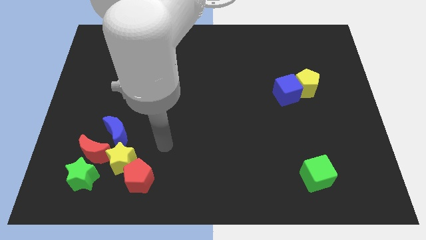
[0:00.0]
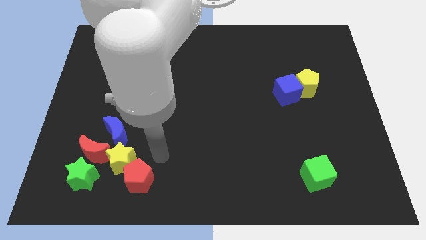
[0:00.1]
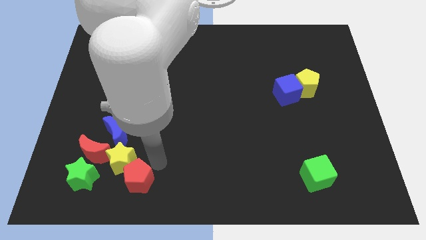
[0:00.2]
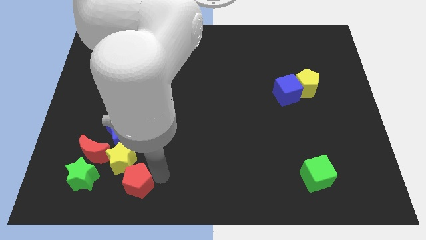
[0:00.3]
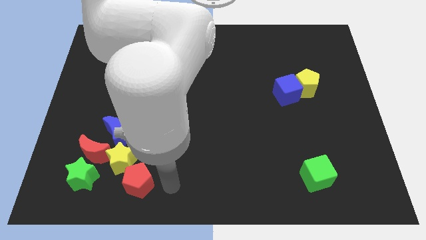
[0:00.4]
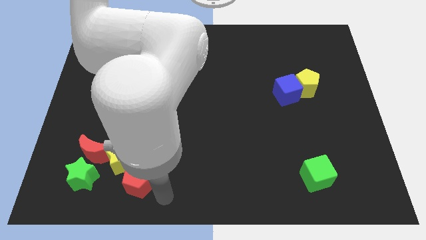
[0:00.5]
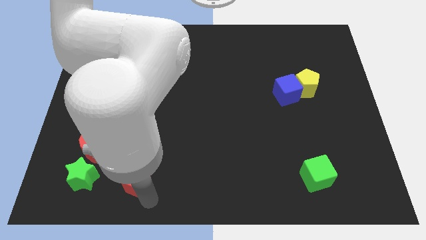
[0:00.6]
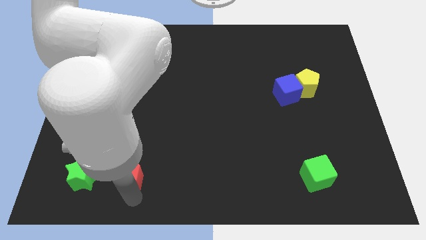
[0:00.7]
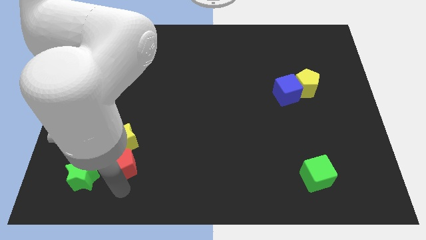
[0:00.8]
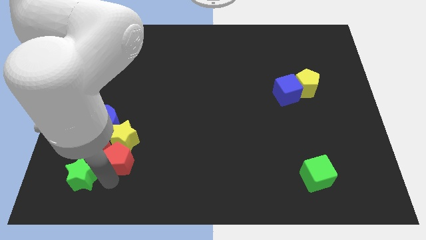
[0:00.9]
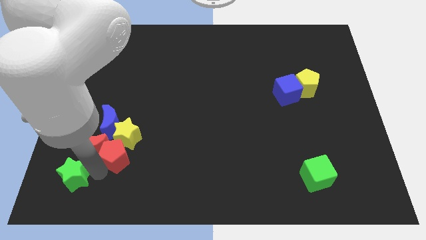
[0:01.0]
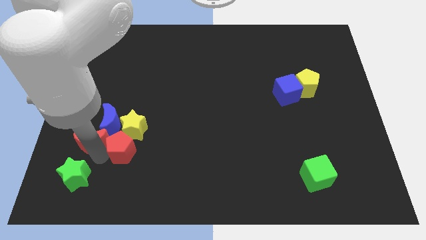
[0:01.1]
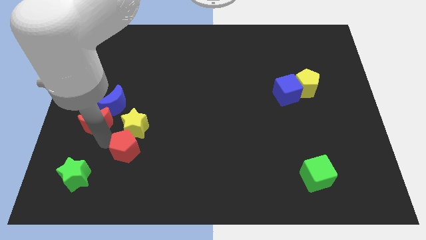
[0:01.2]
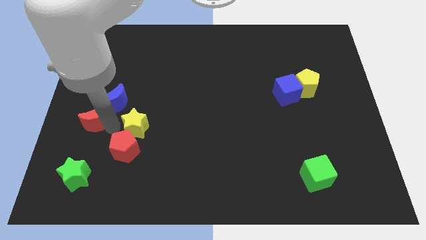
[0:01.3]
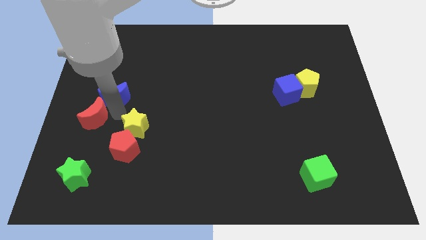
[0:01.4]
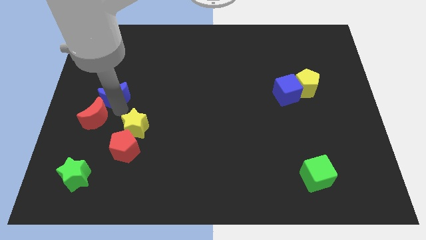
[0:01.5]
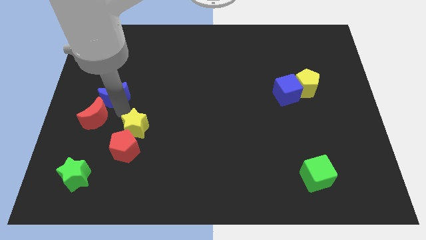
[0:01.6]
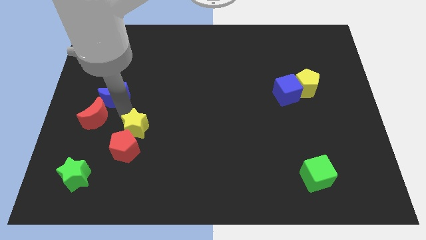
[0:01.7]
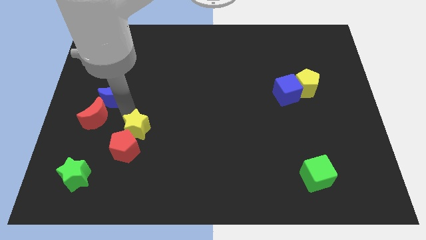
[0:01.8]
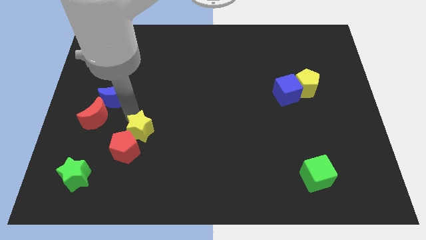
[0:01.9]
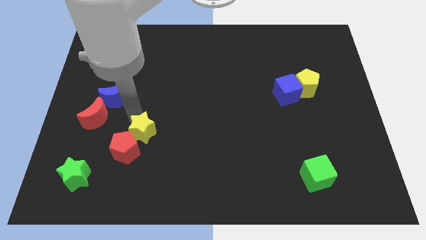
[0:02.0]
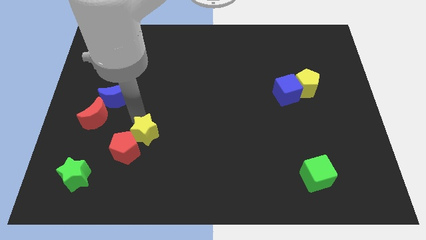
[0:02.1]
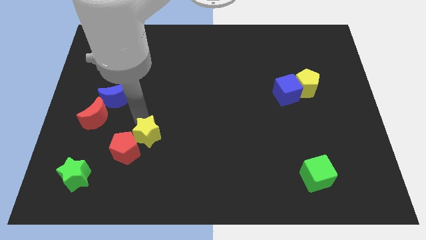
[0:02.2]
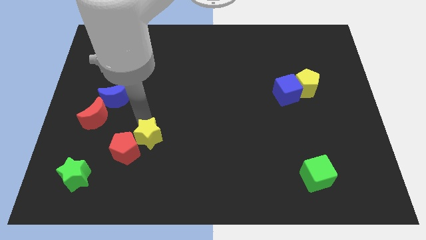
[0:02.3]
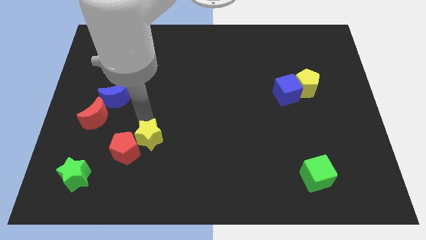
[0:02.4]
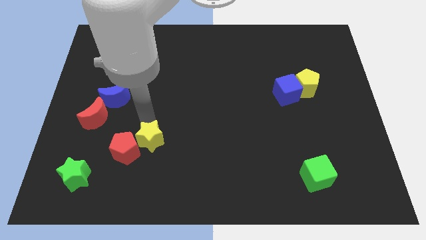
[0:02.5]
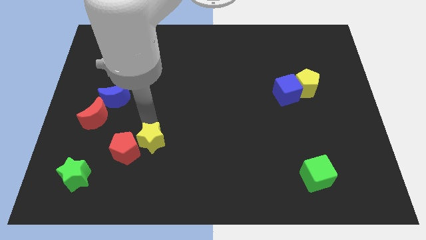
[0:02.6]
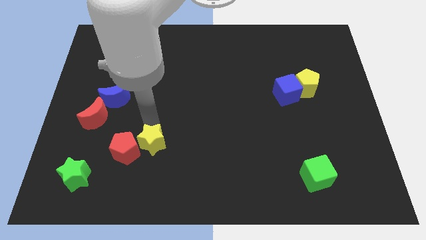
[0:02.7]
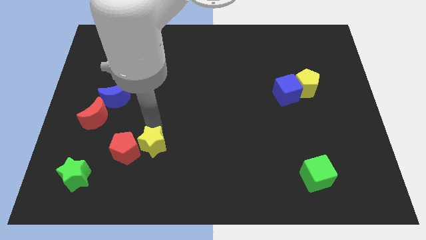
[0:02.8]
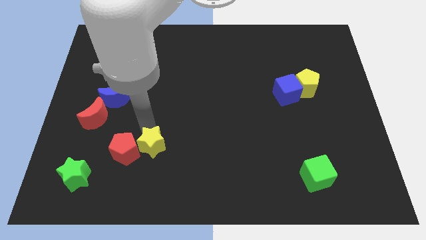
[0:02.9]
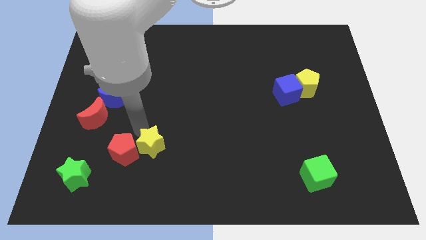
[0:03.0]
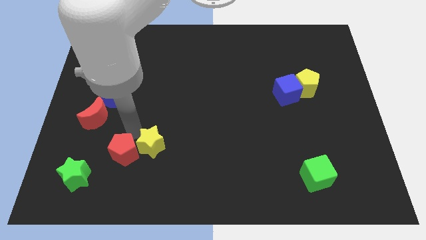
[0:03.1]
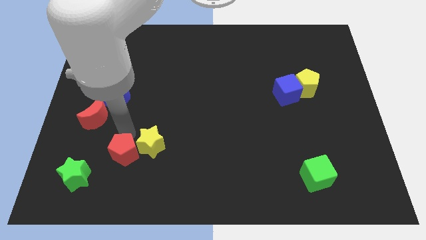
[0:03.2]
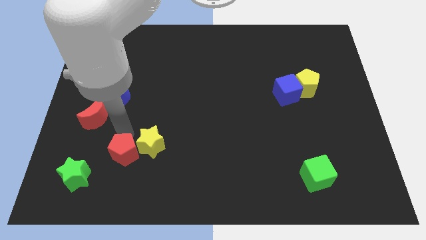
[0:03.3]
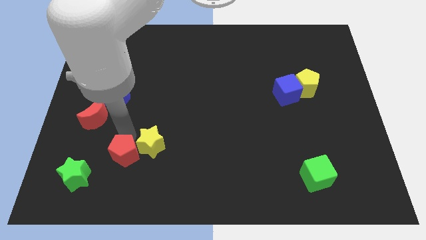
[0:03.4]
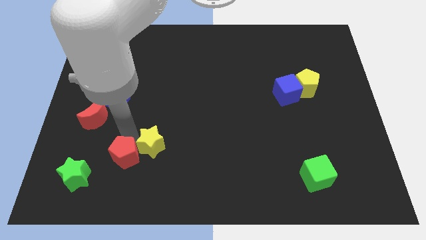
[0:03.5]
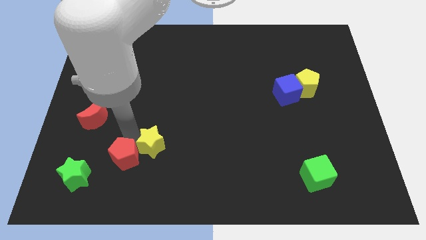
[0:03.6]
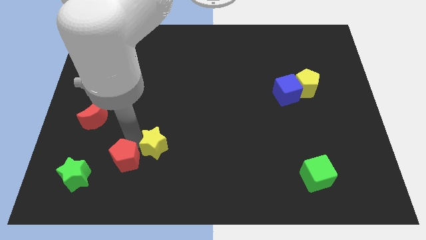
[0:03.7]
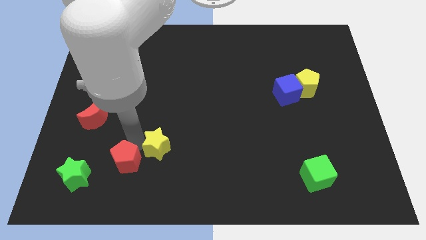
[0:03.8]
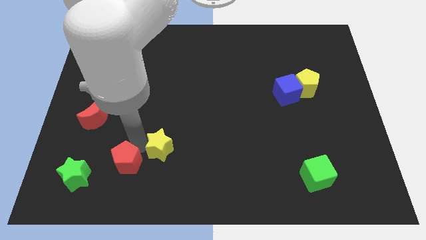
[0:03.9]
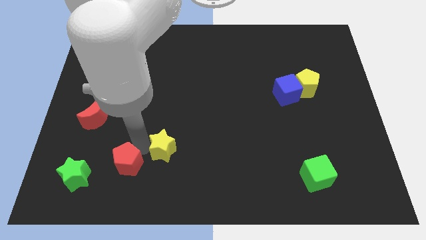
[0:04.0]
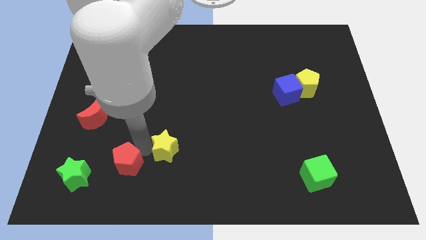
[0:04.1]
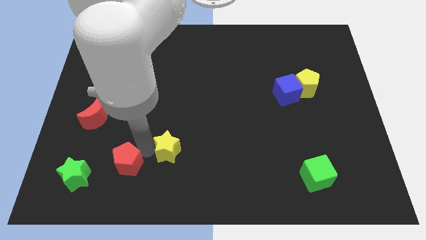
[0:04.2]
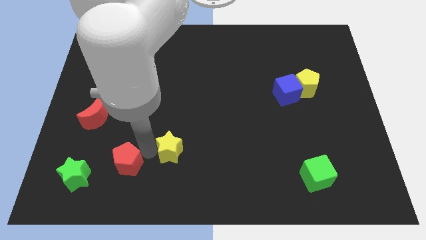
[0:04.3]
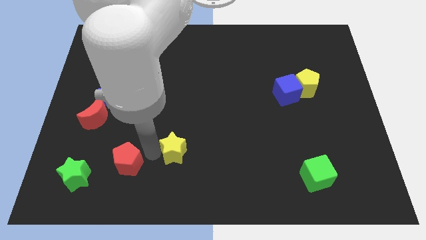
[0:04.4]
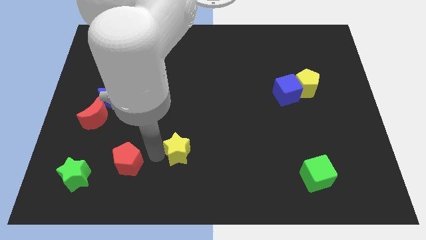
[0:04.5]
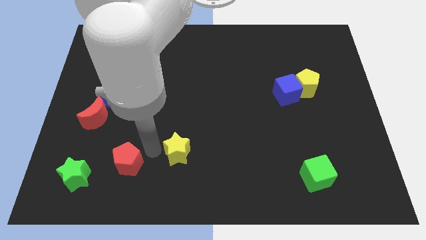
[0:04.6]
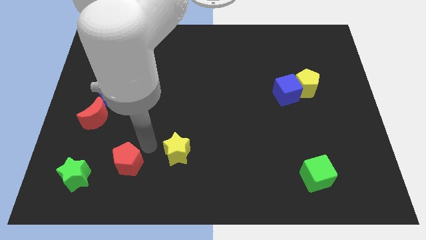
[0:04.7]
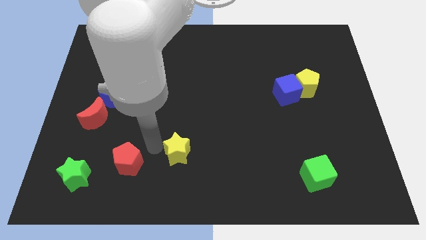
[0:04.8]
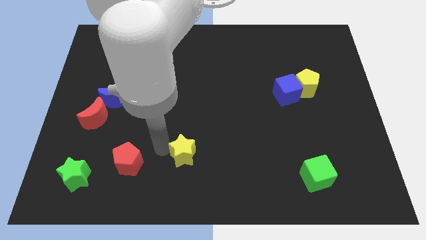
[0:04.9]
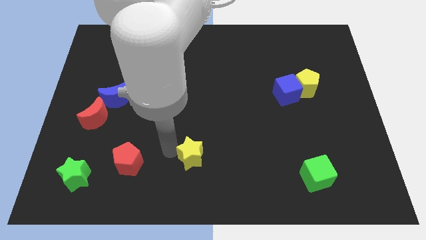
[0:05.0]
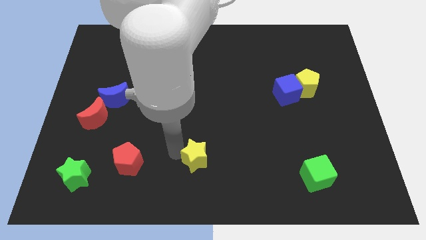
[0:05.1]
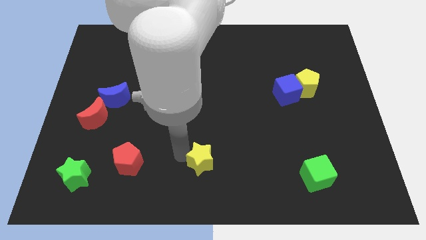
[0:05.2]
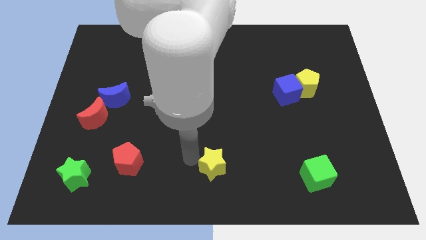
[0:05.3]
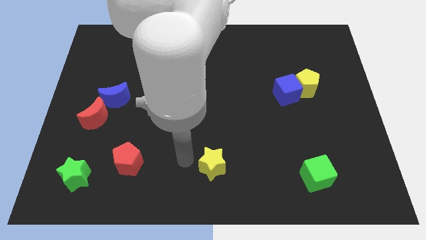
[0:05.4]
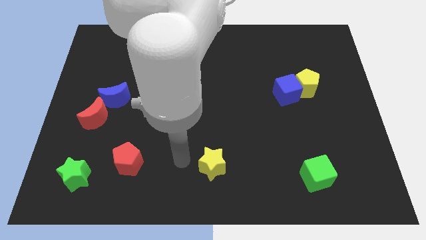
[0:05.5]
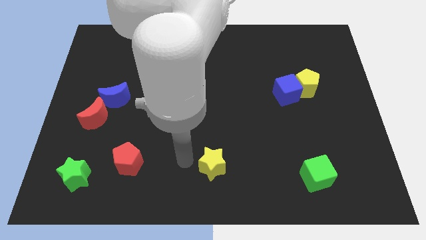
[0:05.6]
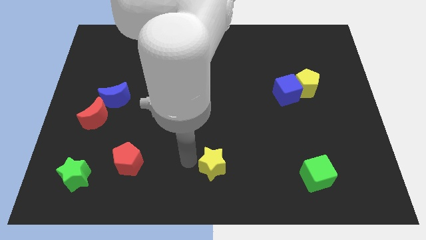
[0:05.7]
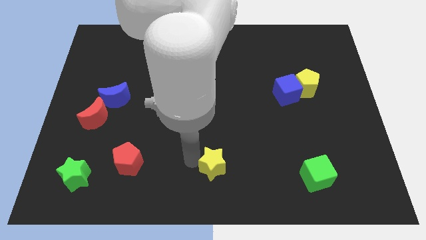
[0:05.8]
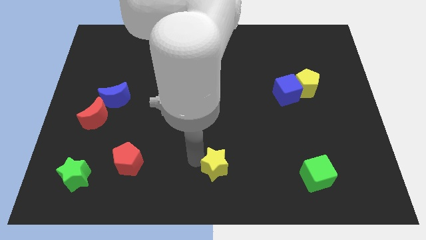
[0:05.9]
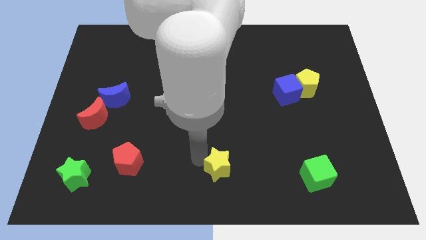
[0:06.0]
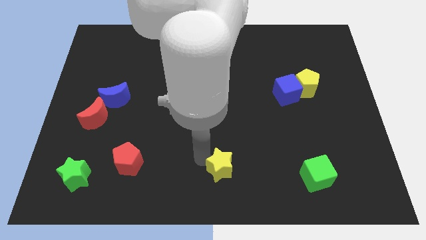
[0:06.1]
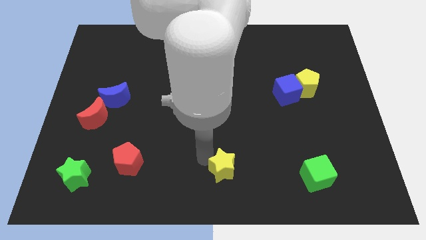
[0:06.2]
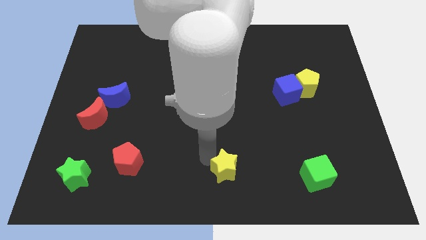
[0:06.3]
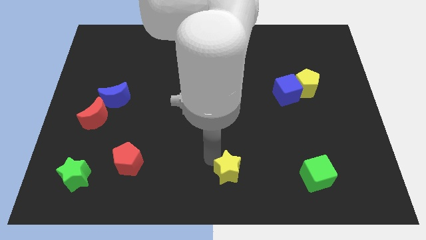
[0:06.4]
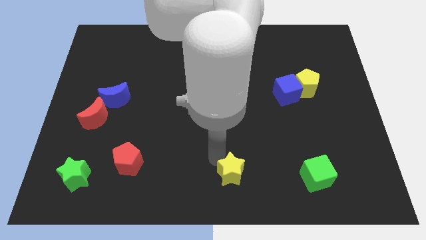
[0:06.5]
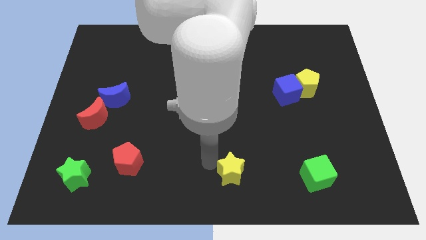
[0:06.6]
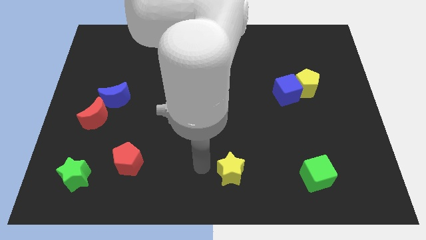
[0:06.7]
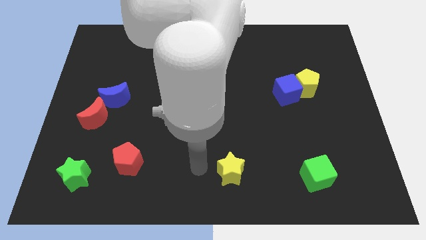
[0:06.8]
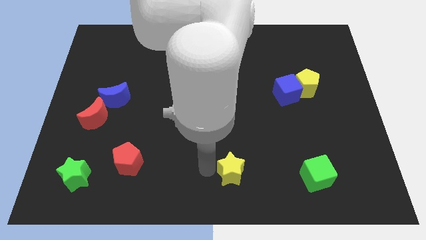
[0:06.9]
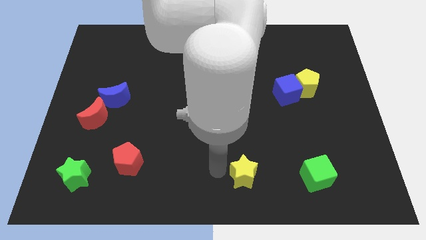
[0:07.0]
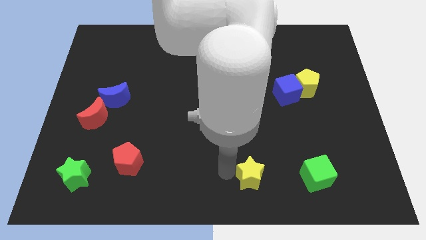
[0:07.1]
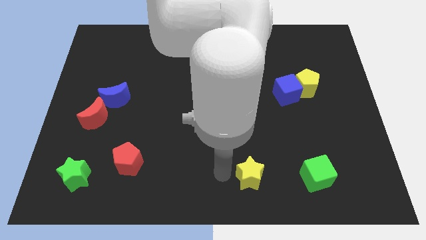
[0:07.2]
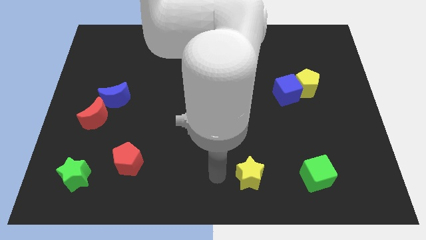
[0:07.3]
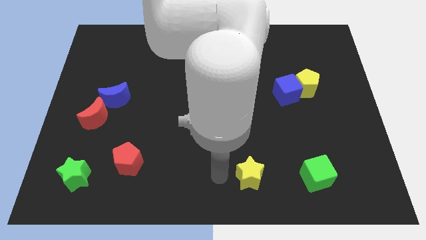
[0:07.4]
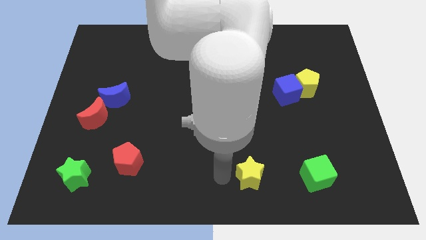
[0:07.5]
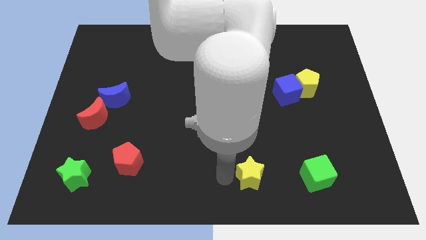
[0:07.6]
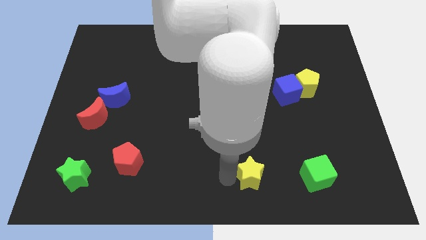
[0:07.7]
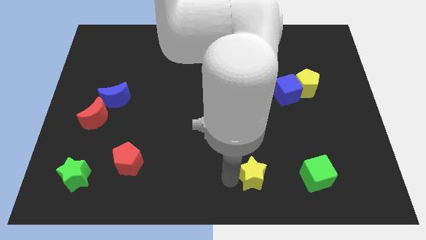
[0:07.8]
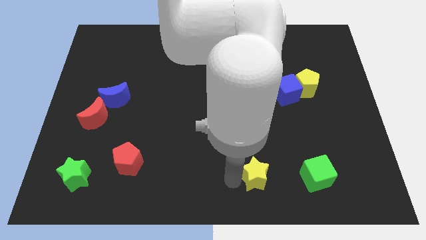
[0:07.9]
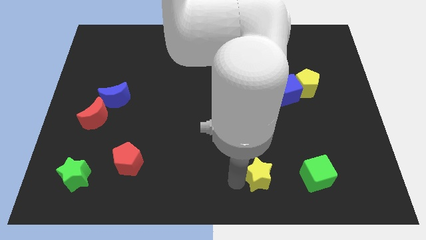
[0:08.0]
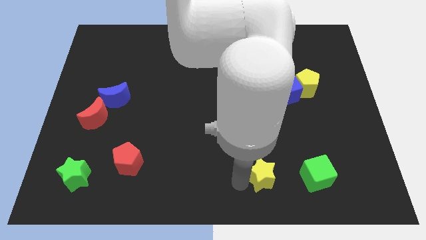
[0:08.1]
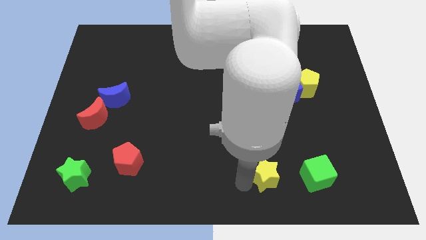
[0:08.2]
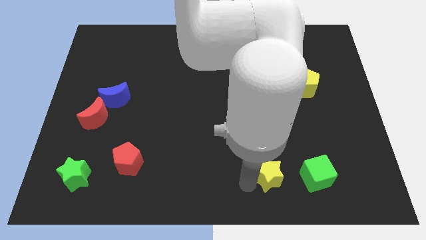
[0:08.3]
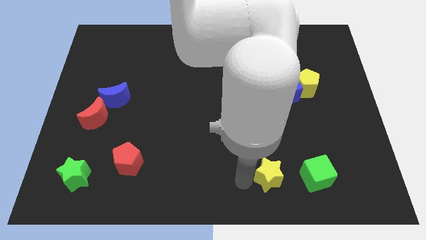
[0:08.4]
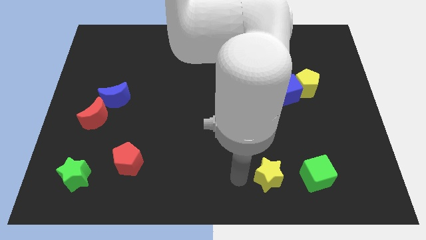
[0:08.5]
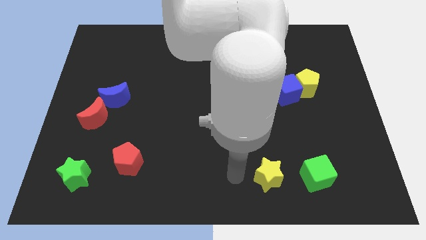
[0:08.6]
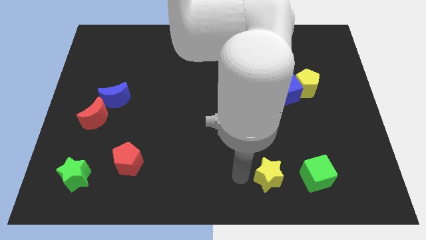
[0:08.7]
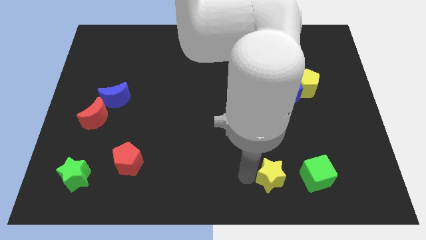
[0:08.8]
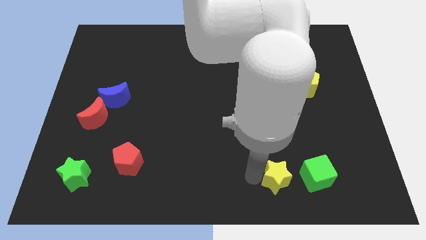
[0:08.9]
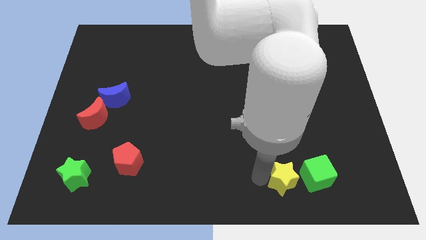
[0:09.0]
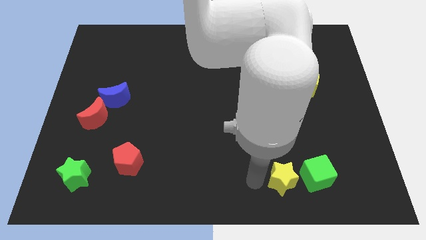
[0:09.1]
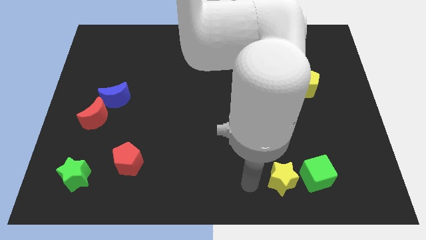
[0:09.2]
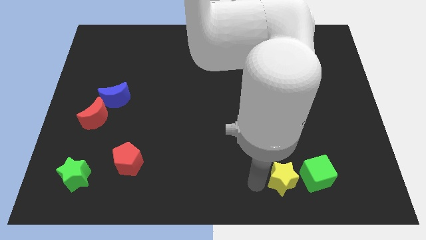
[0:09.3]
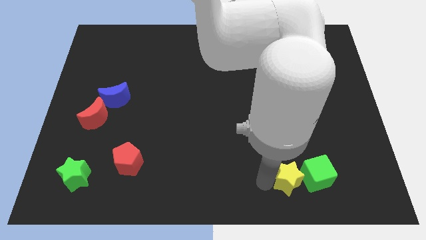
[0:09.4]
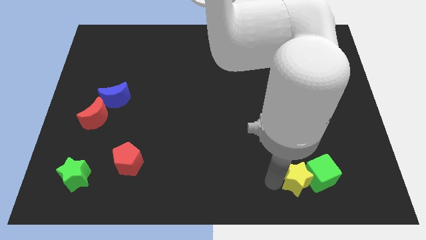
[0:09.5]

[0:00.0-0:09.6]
put the yellow star close to the green cube
